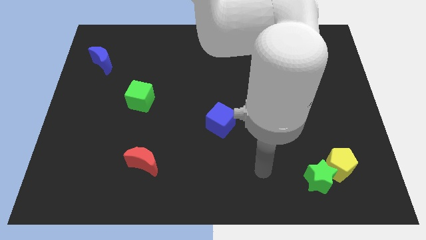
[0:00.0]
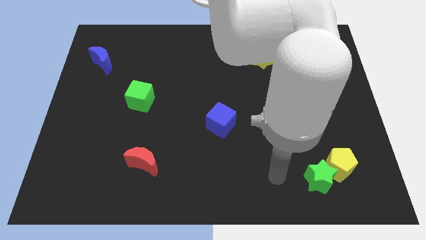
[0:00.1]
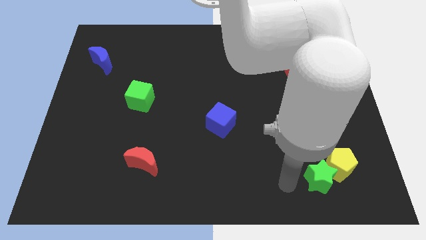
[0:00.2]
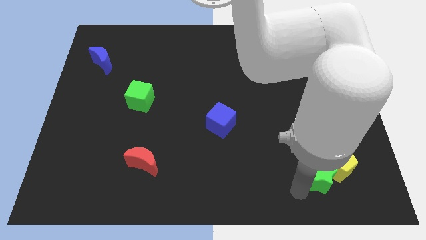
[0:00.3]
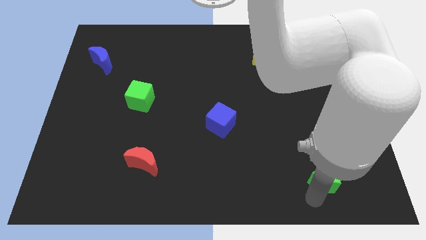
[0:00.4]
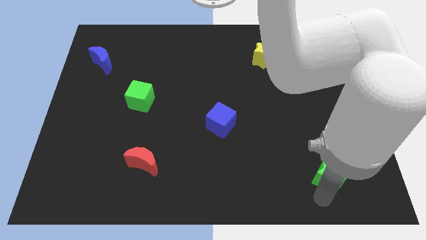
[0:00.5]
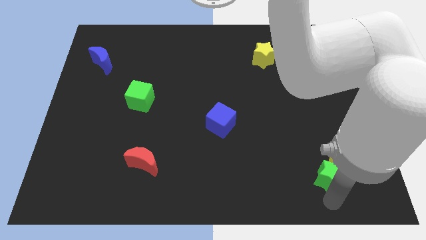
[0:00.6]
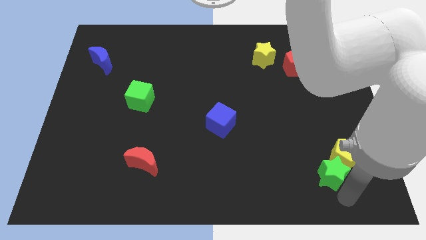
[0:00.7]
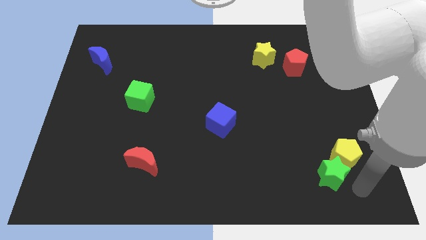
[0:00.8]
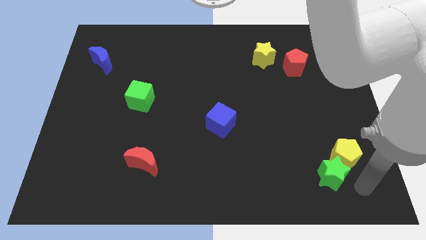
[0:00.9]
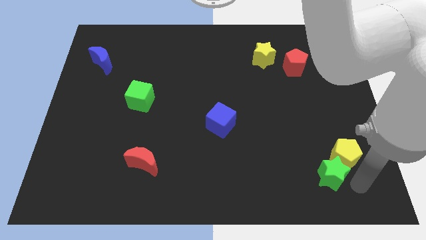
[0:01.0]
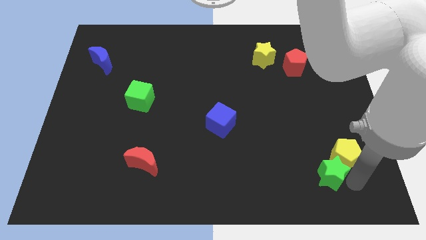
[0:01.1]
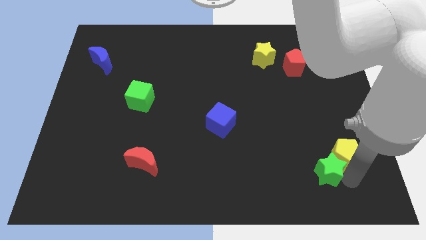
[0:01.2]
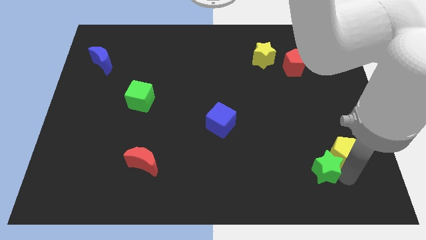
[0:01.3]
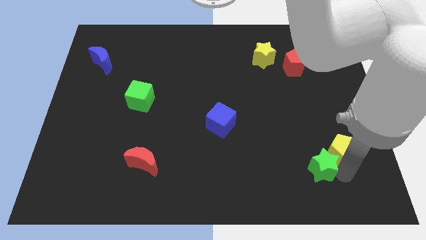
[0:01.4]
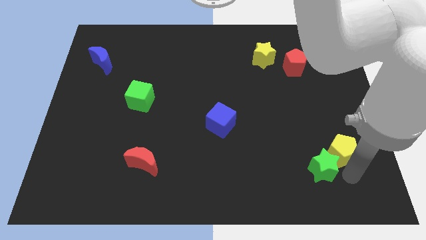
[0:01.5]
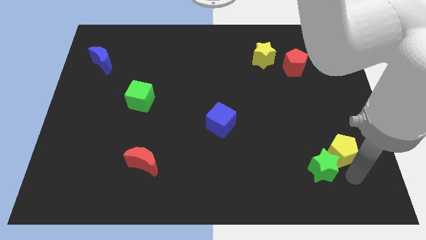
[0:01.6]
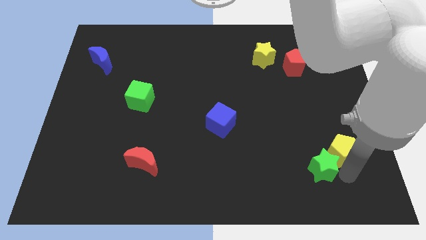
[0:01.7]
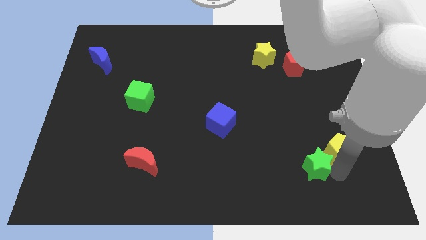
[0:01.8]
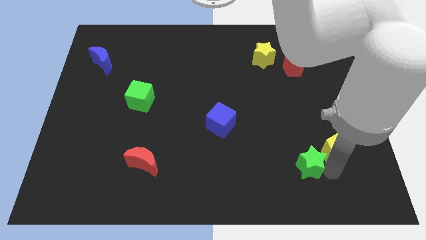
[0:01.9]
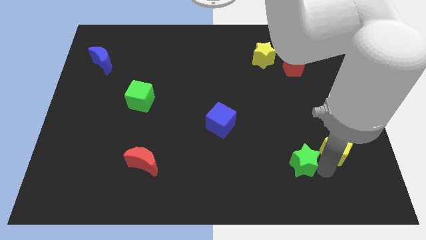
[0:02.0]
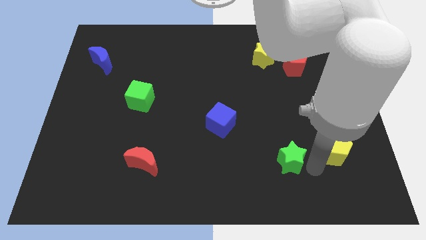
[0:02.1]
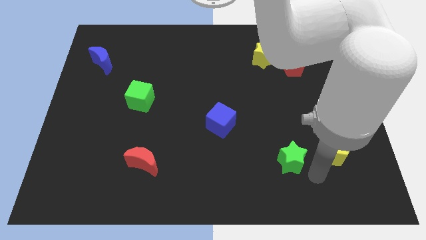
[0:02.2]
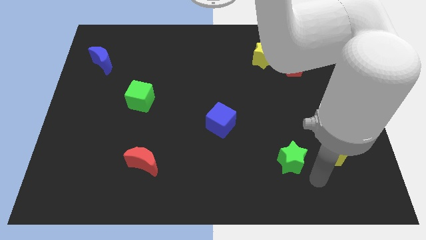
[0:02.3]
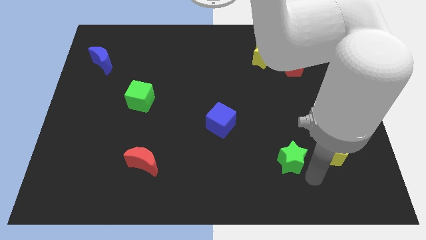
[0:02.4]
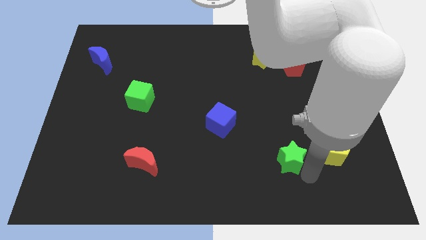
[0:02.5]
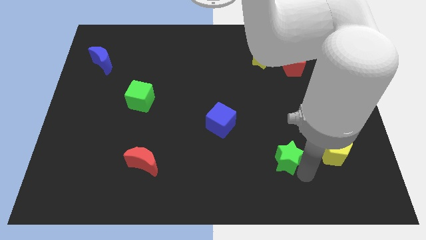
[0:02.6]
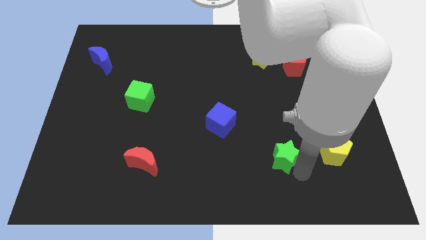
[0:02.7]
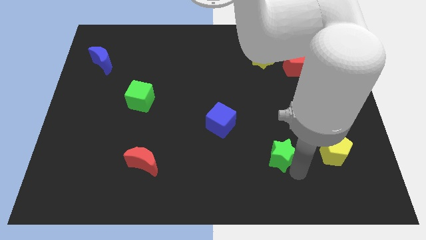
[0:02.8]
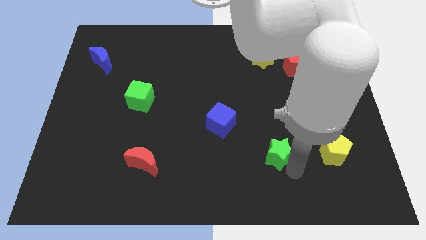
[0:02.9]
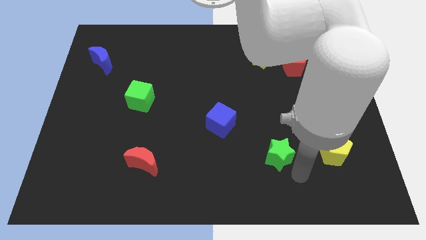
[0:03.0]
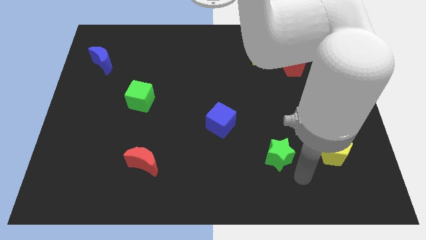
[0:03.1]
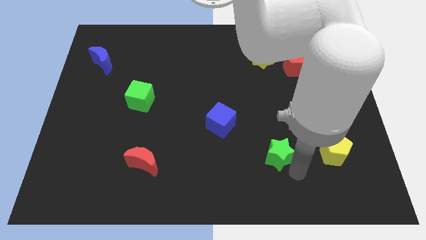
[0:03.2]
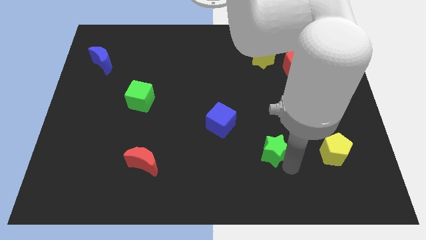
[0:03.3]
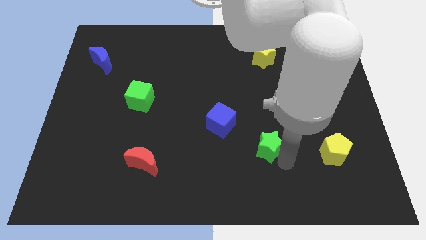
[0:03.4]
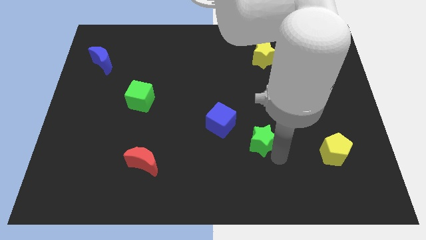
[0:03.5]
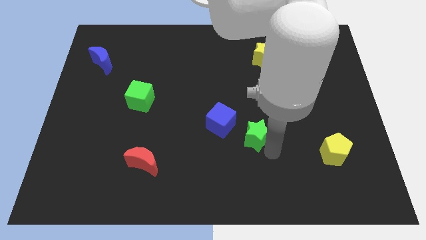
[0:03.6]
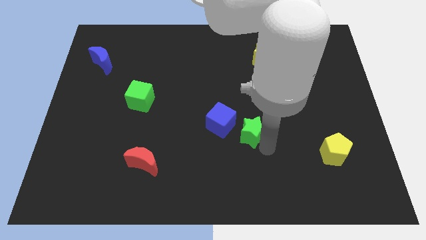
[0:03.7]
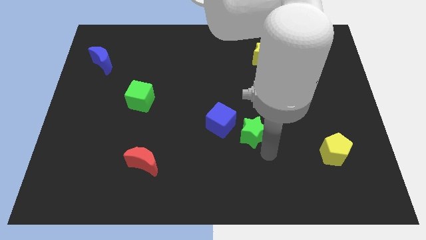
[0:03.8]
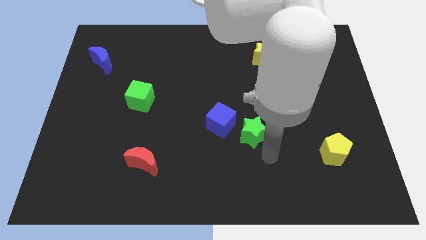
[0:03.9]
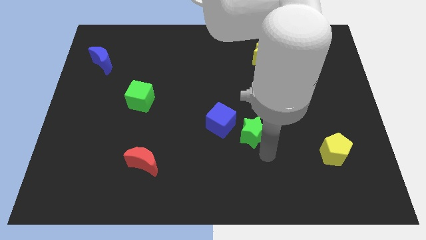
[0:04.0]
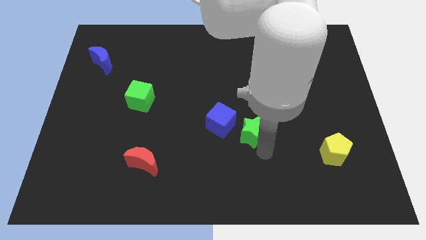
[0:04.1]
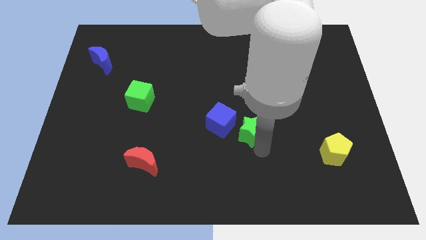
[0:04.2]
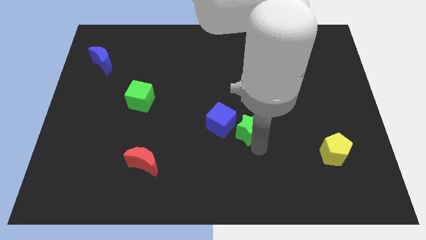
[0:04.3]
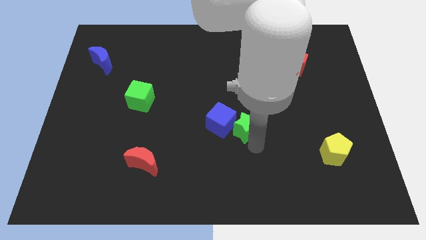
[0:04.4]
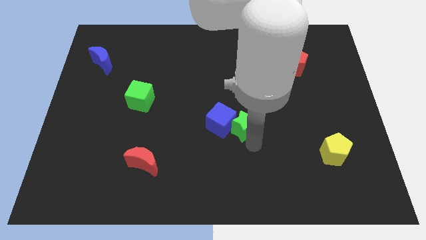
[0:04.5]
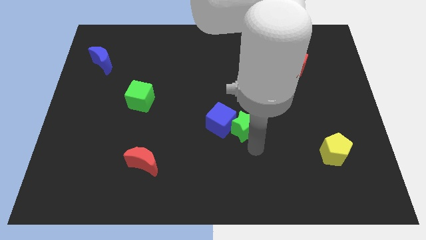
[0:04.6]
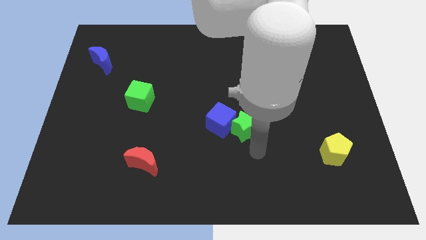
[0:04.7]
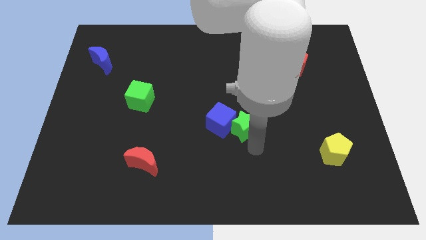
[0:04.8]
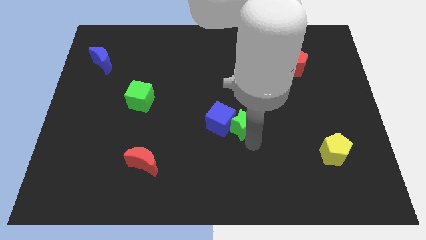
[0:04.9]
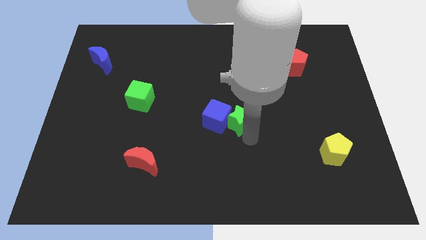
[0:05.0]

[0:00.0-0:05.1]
push the green star up and then left

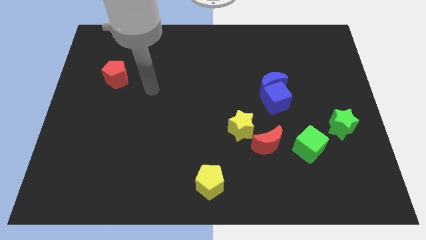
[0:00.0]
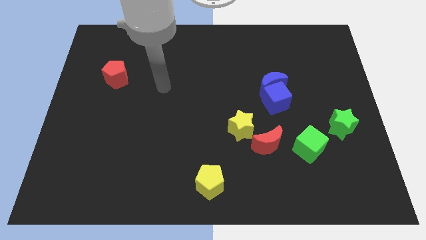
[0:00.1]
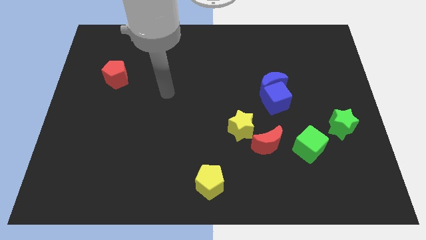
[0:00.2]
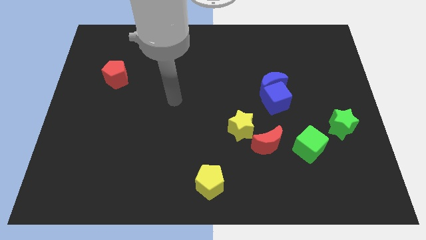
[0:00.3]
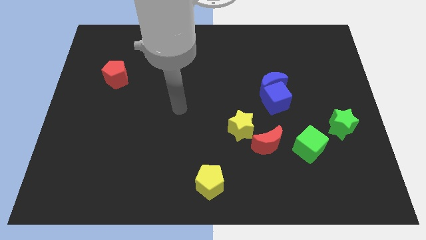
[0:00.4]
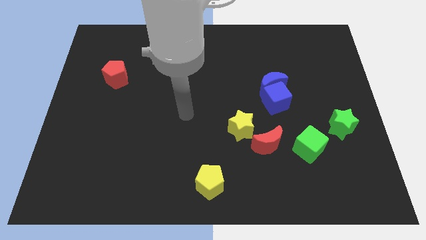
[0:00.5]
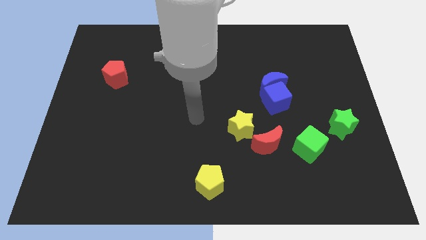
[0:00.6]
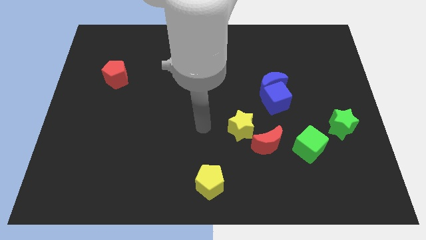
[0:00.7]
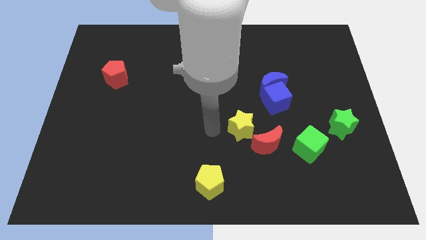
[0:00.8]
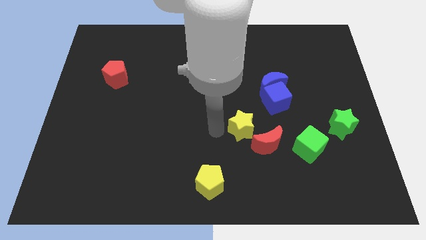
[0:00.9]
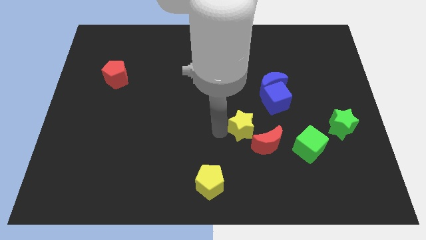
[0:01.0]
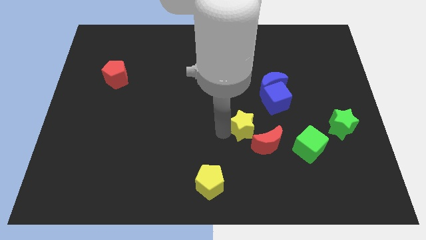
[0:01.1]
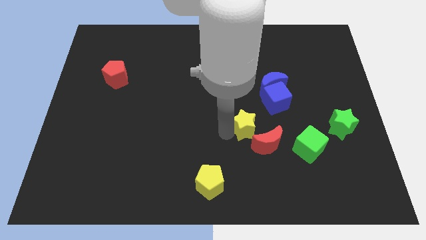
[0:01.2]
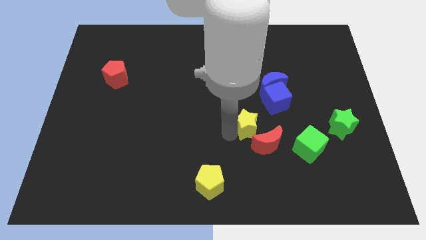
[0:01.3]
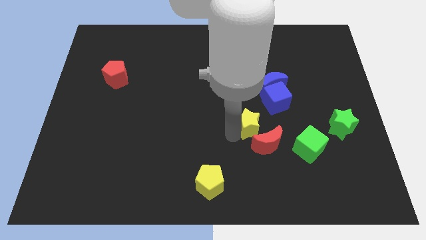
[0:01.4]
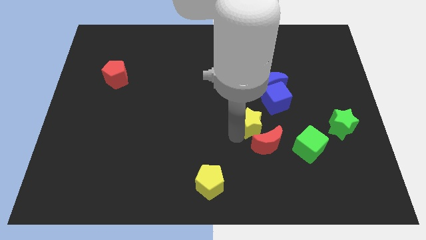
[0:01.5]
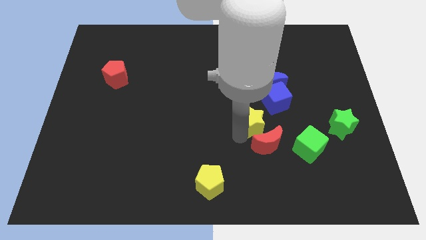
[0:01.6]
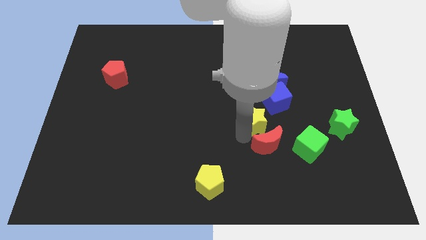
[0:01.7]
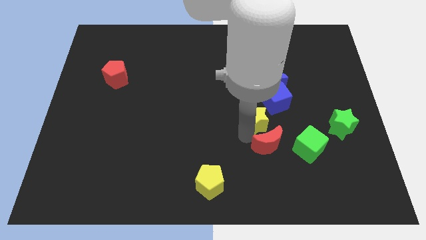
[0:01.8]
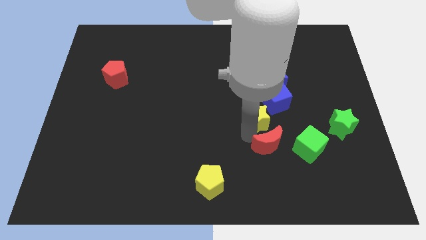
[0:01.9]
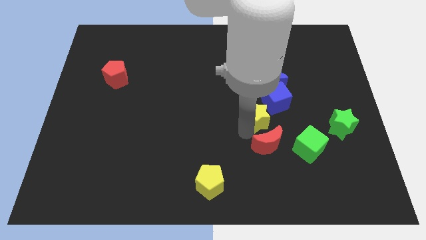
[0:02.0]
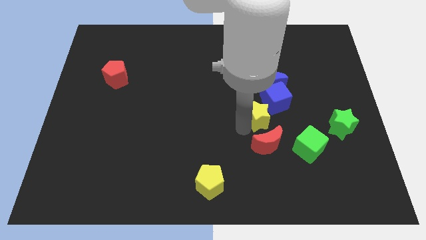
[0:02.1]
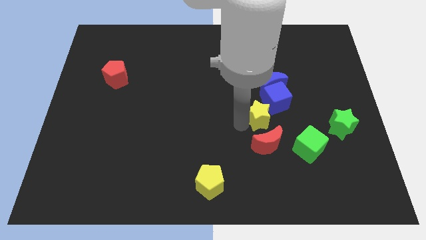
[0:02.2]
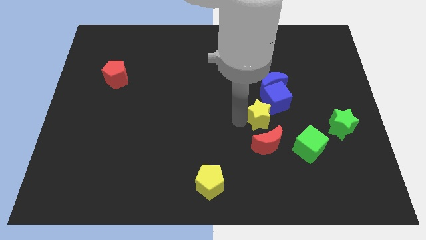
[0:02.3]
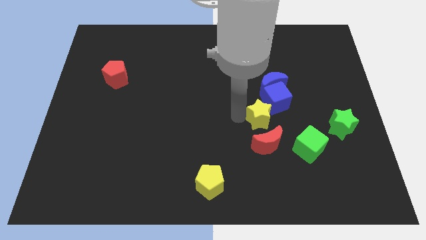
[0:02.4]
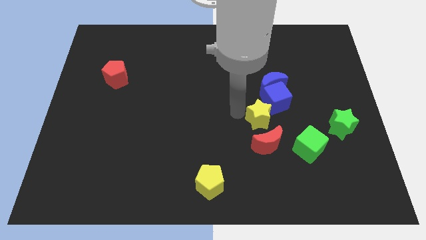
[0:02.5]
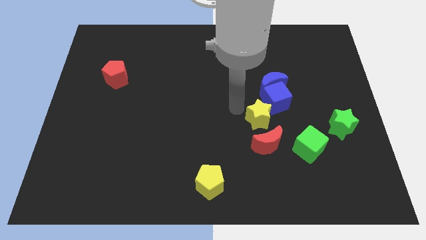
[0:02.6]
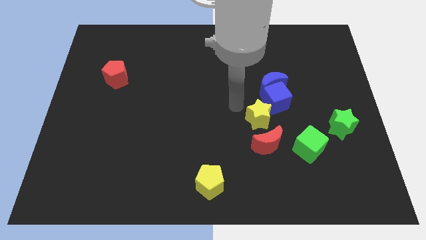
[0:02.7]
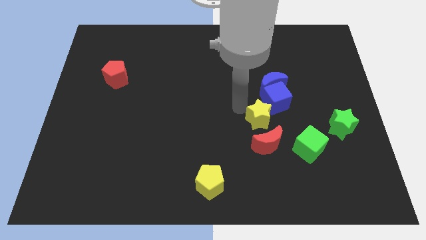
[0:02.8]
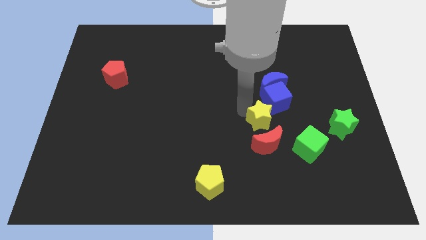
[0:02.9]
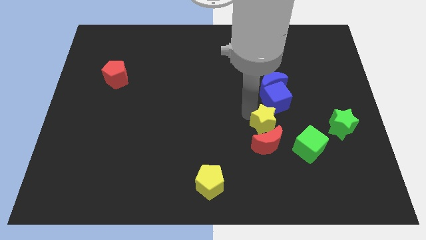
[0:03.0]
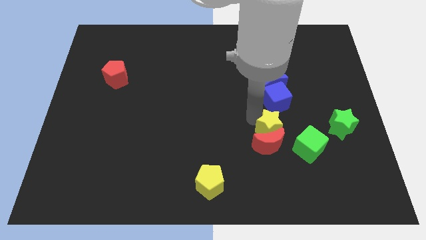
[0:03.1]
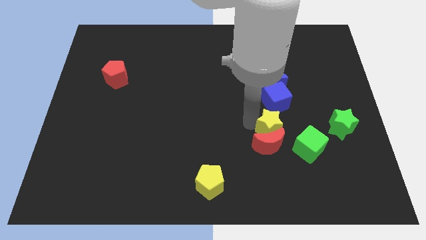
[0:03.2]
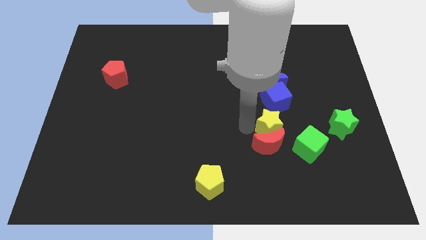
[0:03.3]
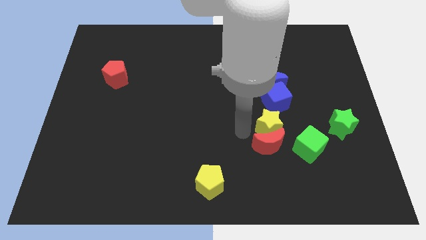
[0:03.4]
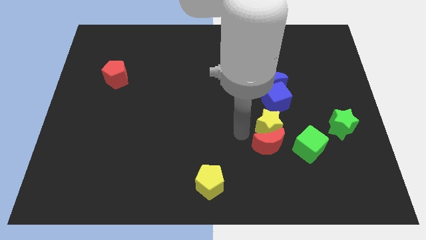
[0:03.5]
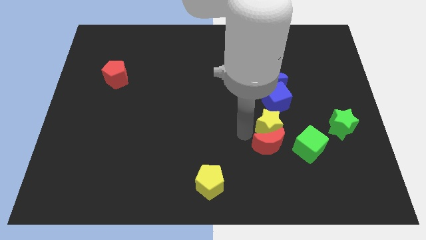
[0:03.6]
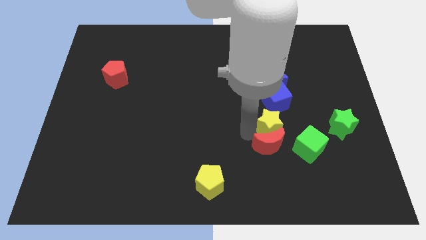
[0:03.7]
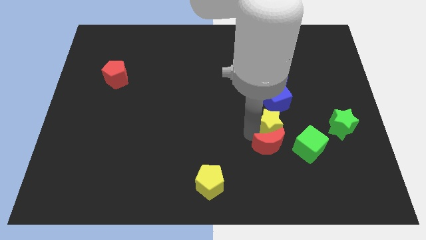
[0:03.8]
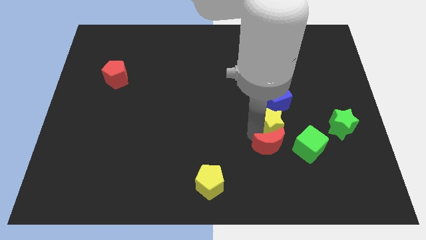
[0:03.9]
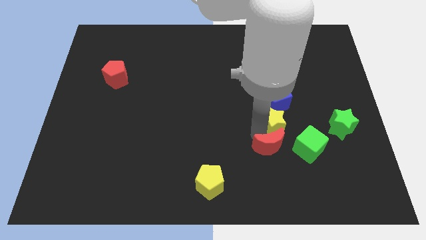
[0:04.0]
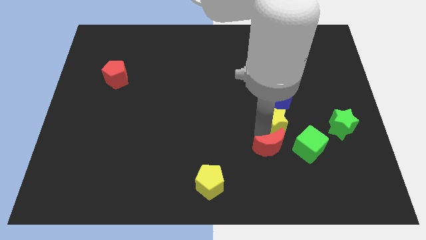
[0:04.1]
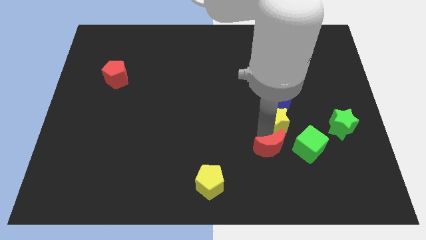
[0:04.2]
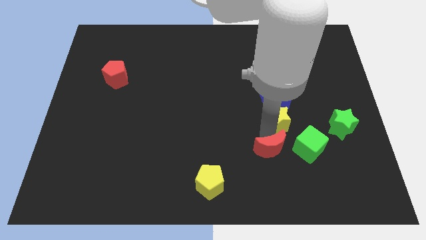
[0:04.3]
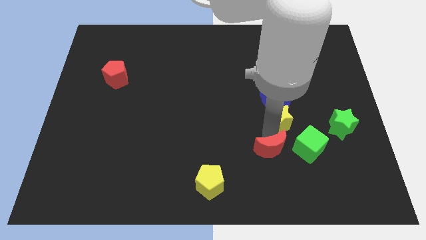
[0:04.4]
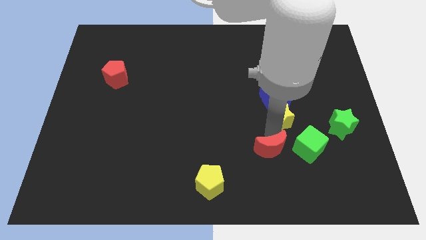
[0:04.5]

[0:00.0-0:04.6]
move the yellow star upwards and then right a bit
